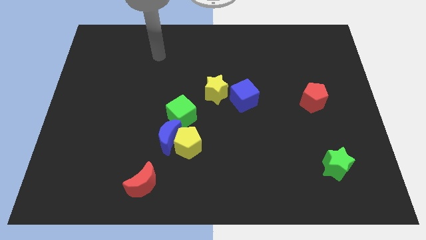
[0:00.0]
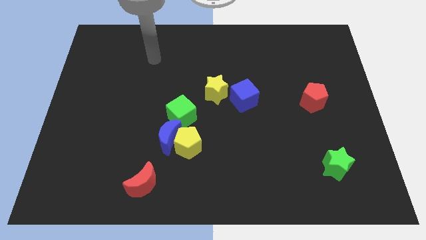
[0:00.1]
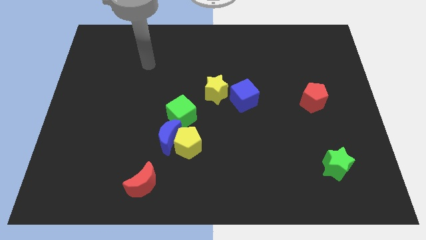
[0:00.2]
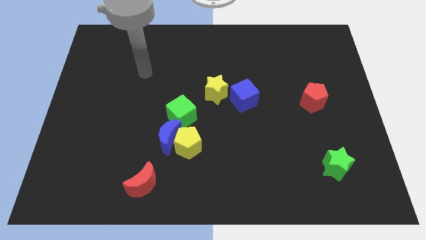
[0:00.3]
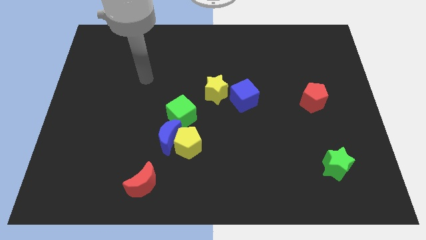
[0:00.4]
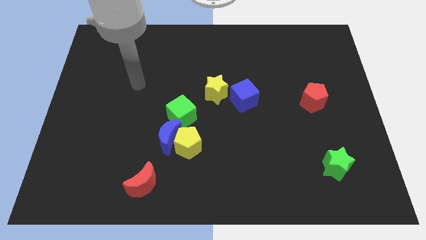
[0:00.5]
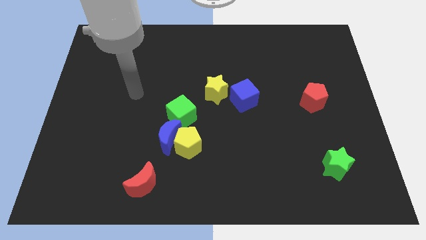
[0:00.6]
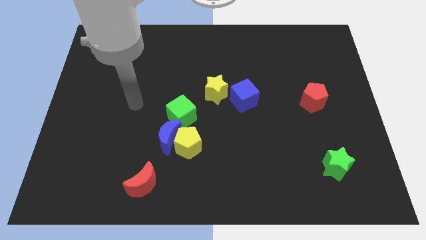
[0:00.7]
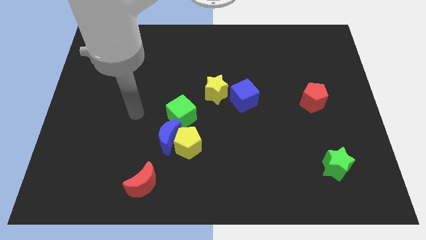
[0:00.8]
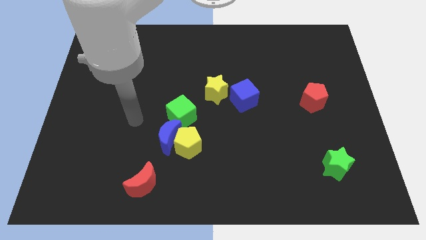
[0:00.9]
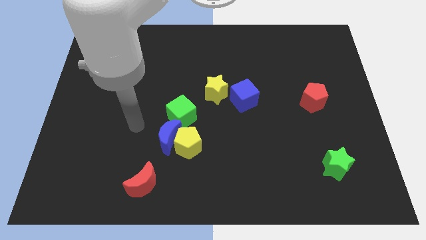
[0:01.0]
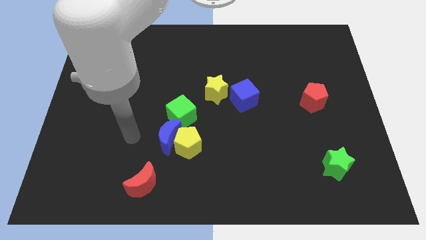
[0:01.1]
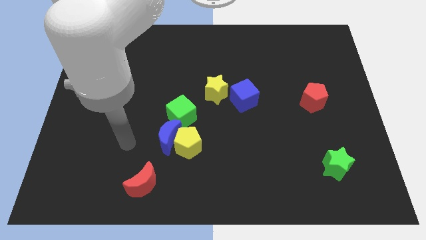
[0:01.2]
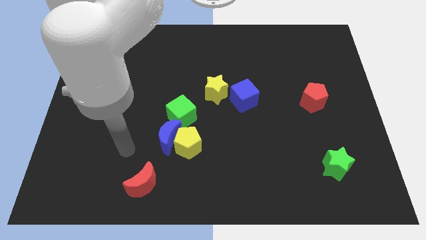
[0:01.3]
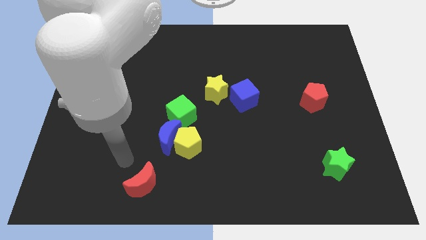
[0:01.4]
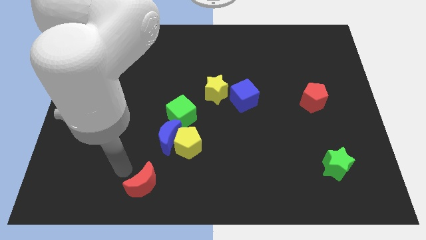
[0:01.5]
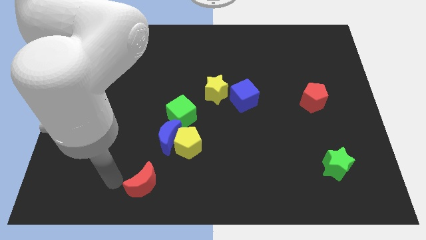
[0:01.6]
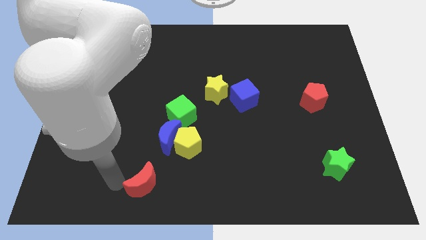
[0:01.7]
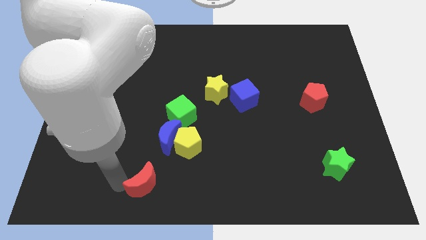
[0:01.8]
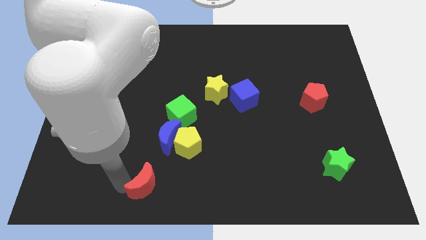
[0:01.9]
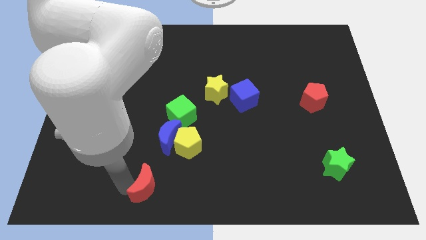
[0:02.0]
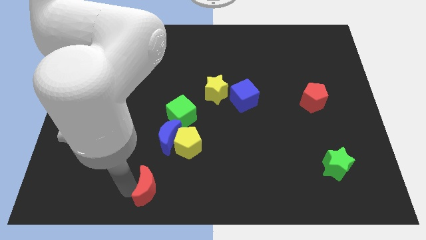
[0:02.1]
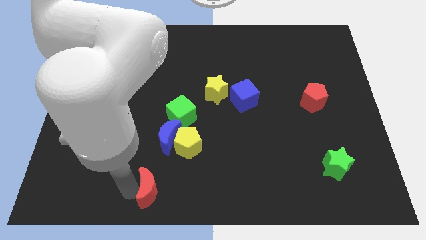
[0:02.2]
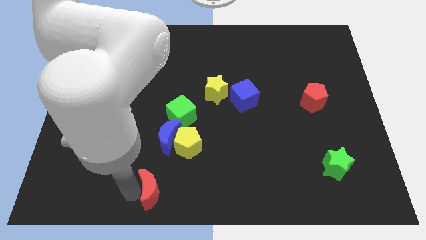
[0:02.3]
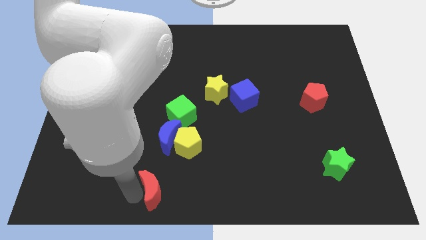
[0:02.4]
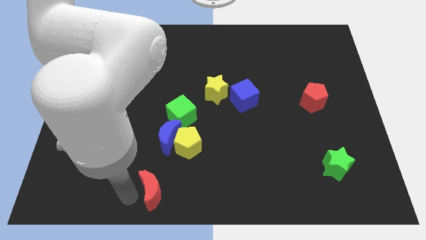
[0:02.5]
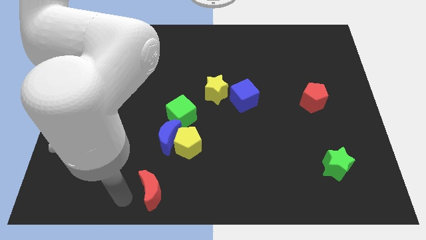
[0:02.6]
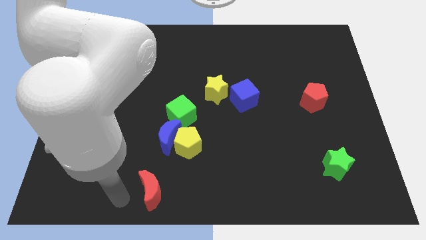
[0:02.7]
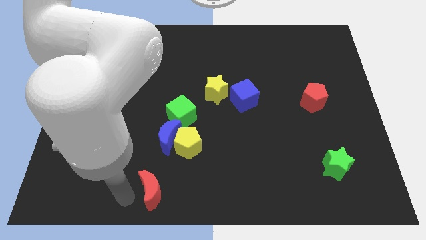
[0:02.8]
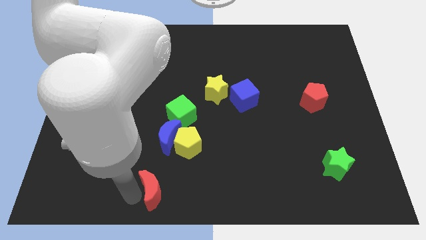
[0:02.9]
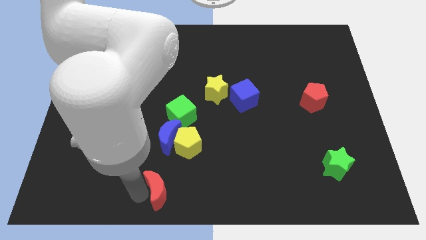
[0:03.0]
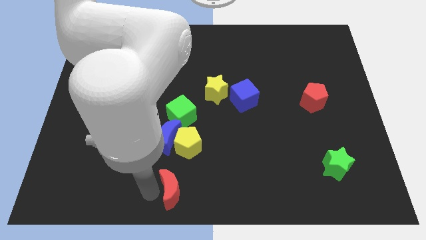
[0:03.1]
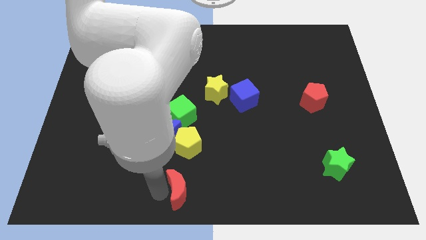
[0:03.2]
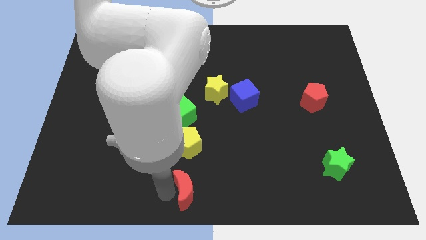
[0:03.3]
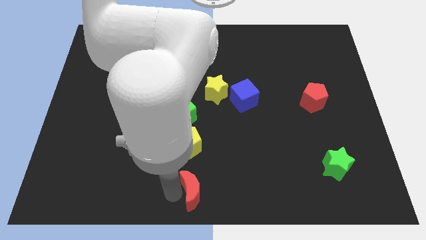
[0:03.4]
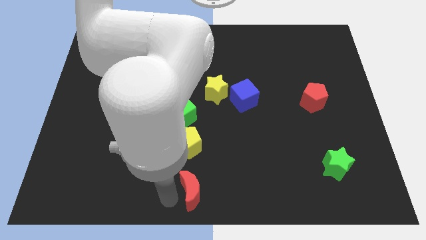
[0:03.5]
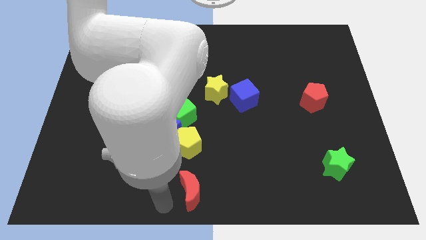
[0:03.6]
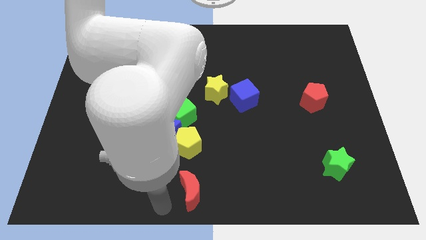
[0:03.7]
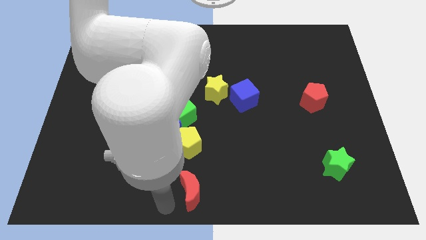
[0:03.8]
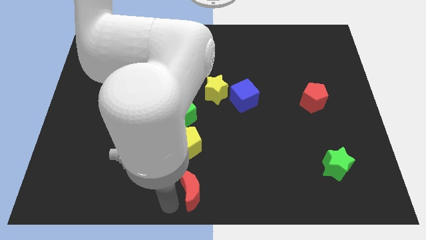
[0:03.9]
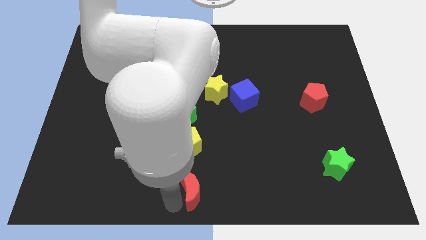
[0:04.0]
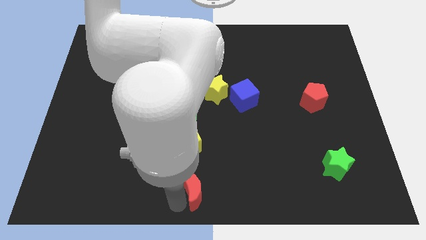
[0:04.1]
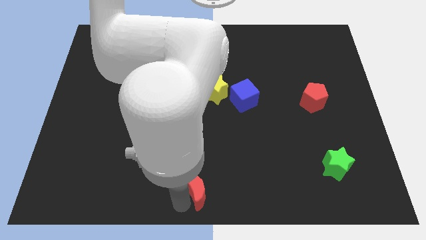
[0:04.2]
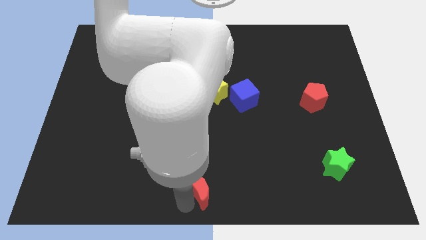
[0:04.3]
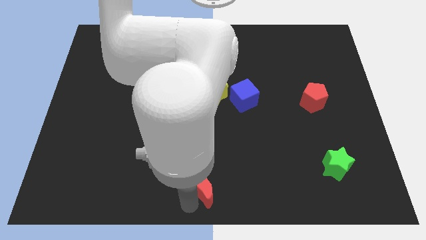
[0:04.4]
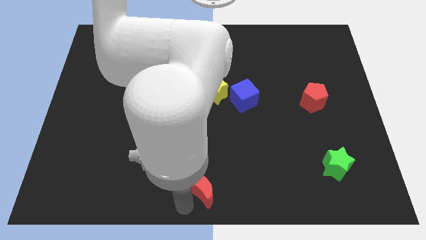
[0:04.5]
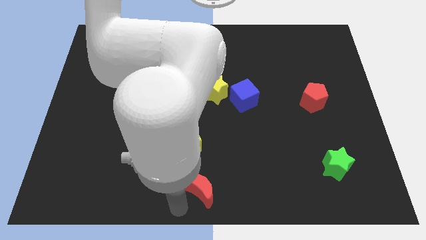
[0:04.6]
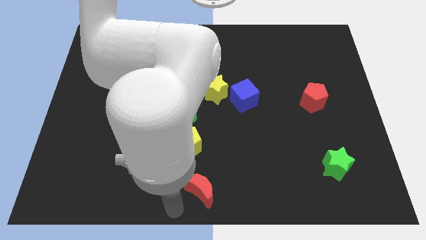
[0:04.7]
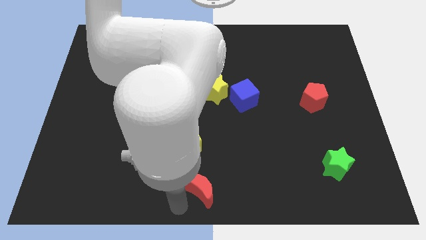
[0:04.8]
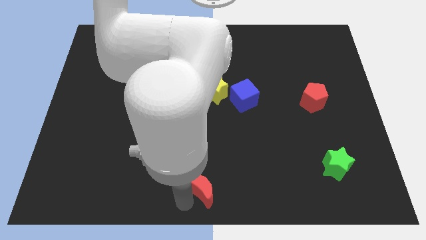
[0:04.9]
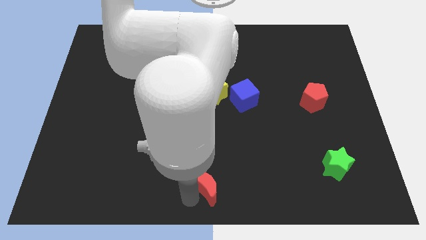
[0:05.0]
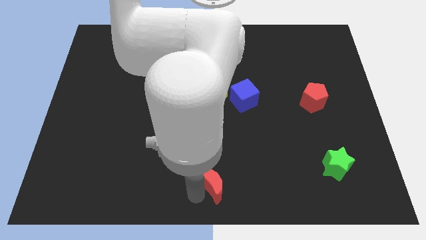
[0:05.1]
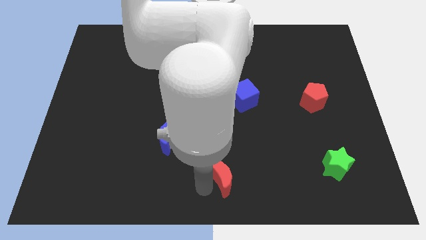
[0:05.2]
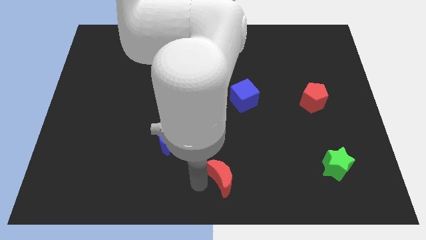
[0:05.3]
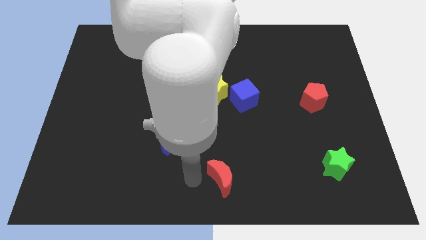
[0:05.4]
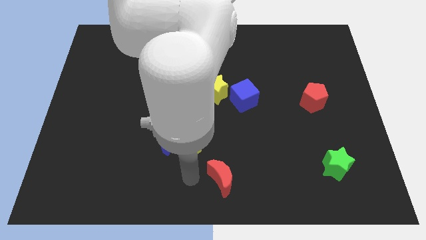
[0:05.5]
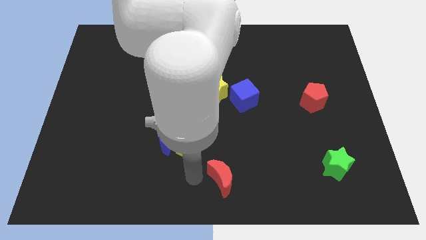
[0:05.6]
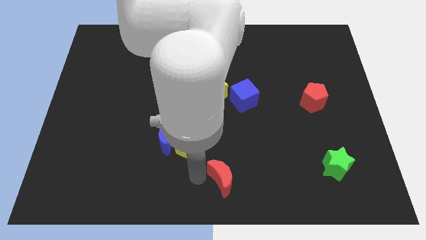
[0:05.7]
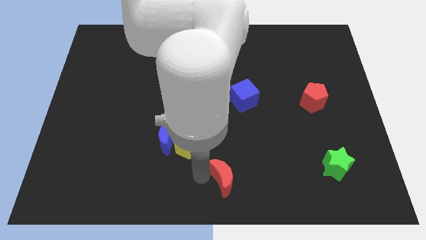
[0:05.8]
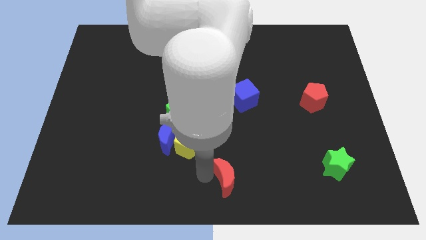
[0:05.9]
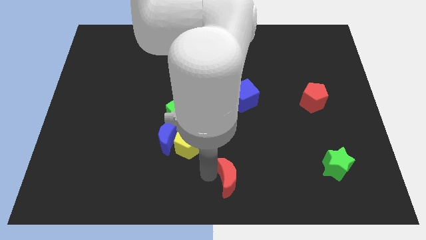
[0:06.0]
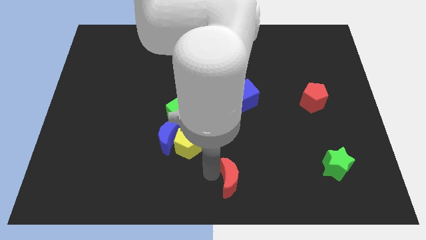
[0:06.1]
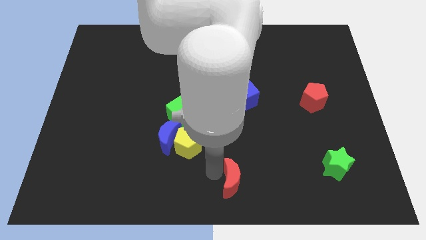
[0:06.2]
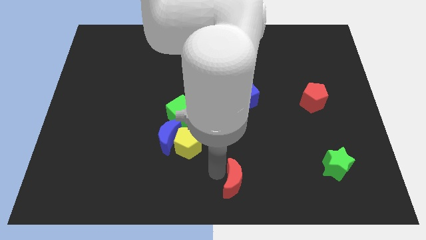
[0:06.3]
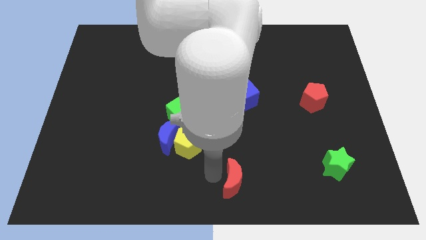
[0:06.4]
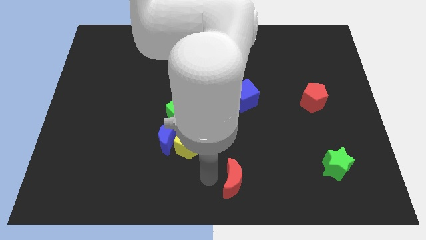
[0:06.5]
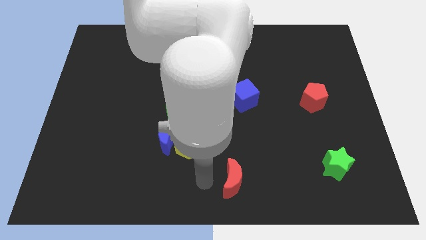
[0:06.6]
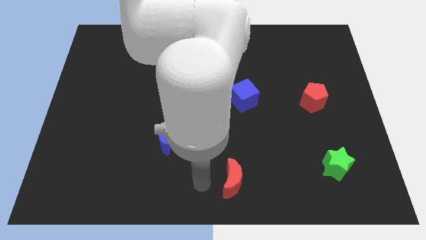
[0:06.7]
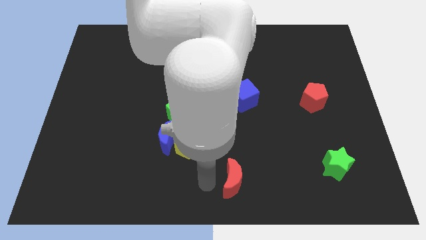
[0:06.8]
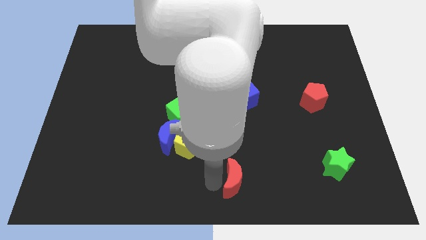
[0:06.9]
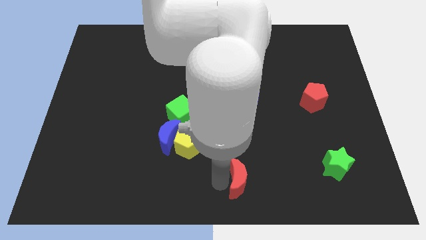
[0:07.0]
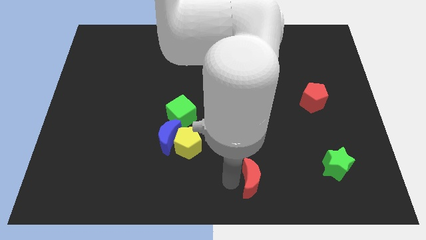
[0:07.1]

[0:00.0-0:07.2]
slide the red moon right

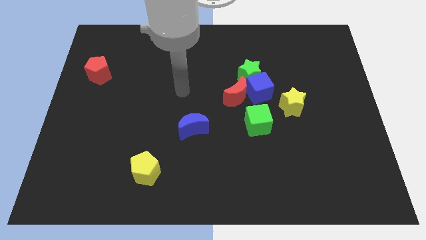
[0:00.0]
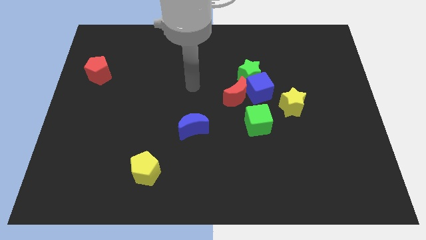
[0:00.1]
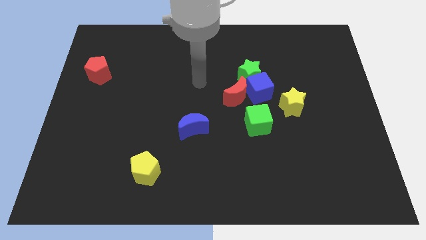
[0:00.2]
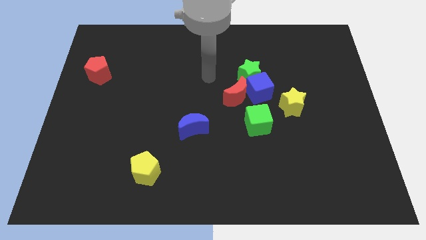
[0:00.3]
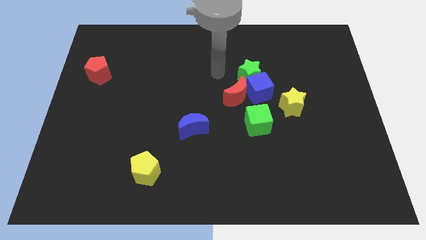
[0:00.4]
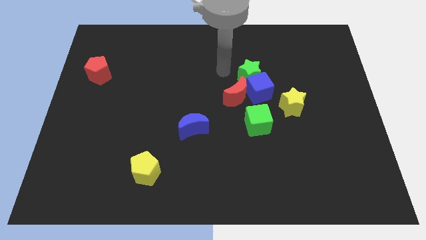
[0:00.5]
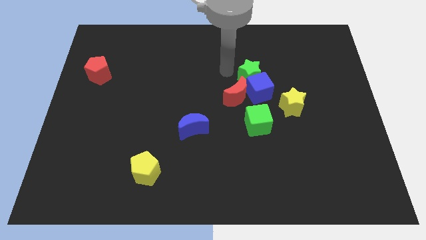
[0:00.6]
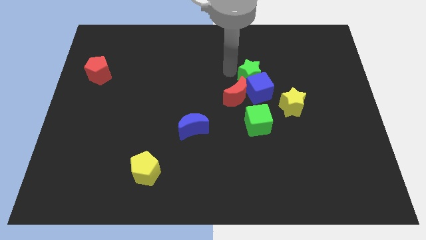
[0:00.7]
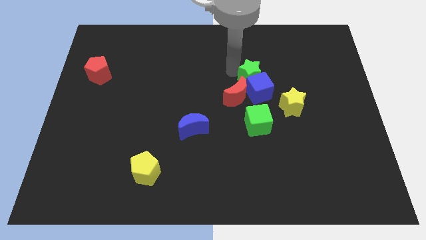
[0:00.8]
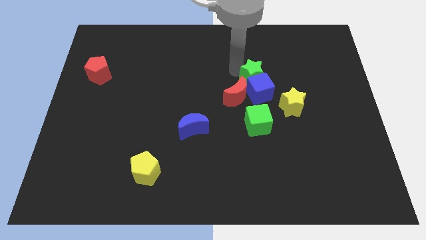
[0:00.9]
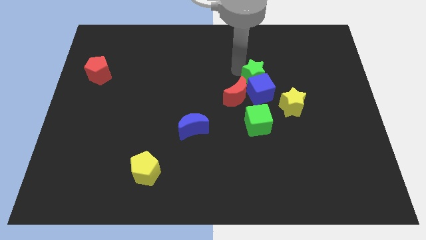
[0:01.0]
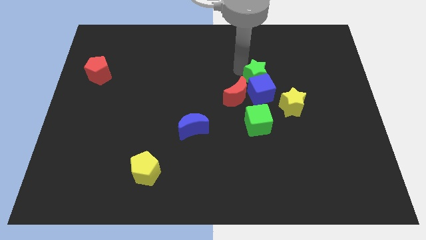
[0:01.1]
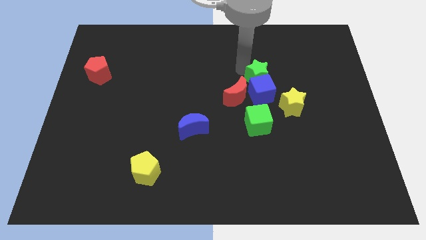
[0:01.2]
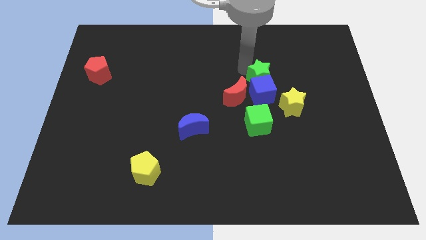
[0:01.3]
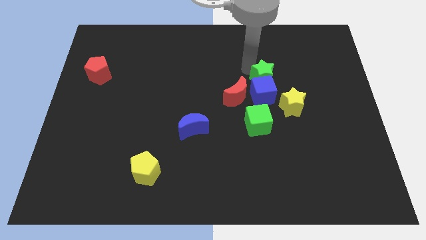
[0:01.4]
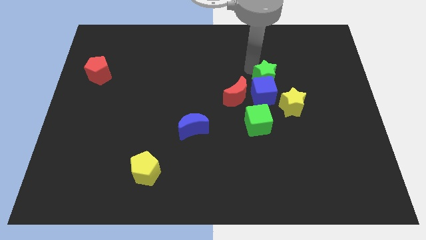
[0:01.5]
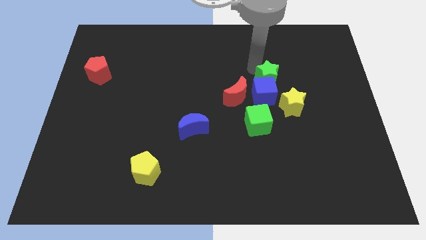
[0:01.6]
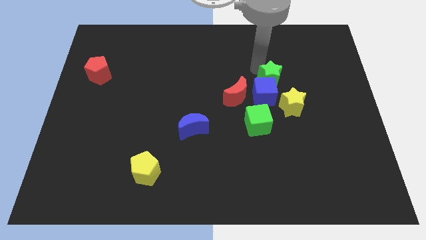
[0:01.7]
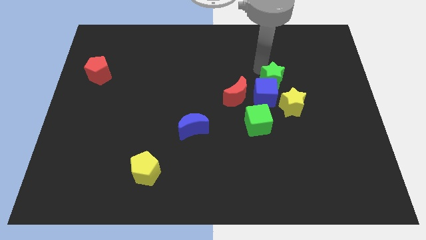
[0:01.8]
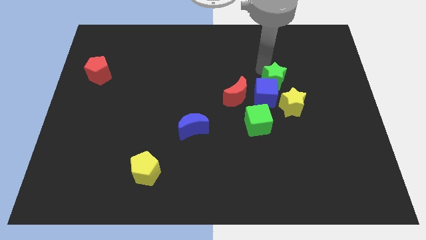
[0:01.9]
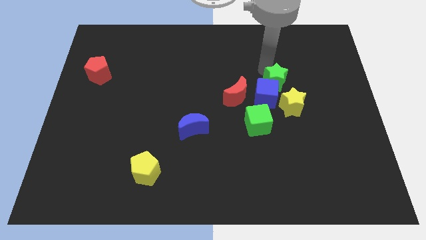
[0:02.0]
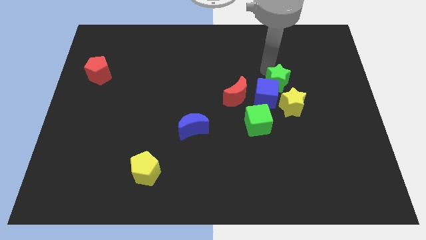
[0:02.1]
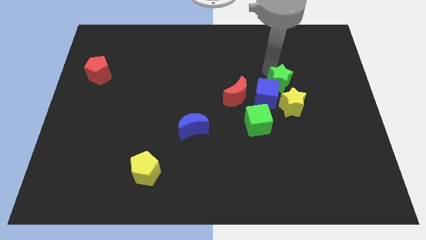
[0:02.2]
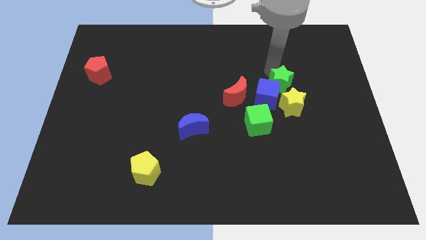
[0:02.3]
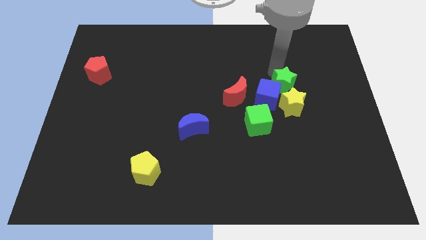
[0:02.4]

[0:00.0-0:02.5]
slightly push the green star diagonally down and right
